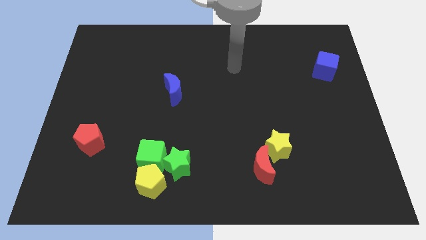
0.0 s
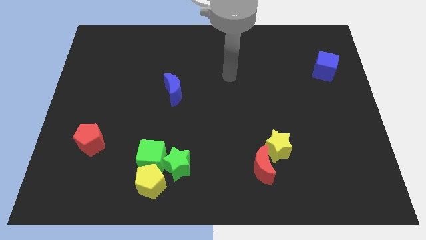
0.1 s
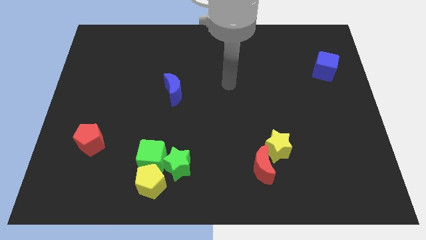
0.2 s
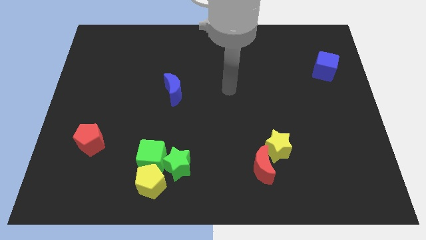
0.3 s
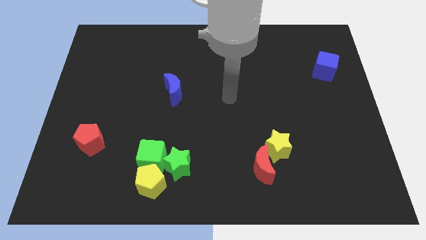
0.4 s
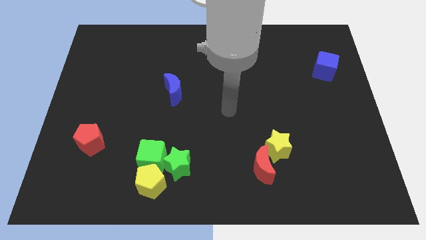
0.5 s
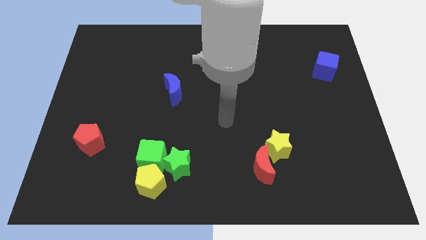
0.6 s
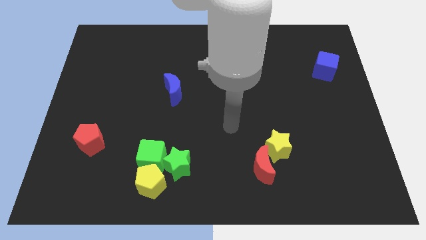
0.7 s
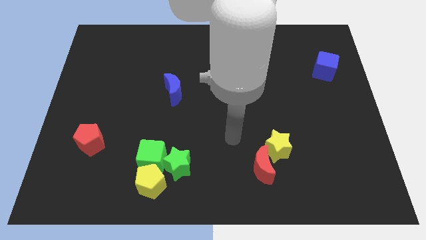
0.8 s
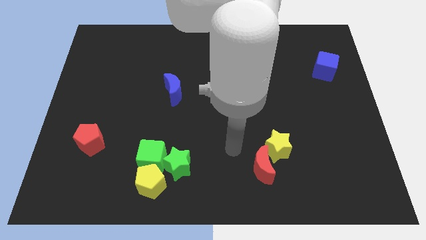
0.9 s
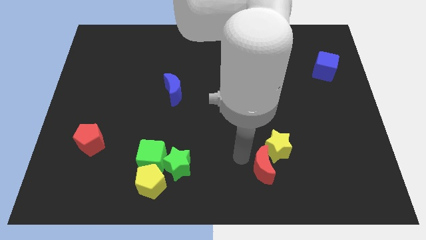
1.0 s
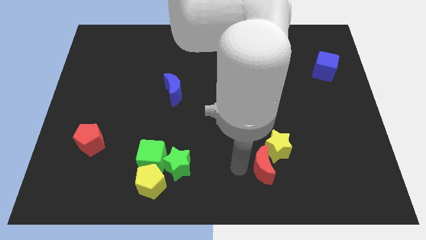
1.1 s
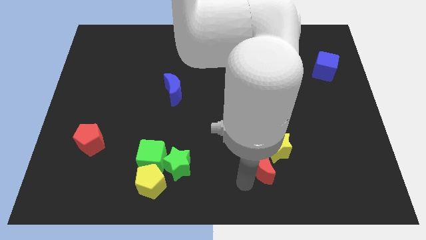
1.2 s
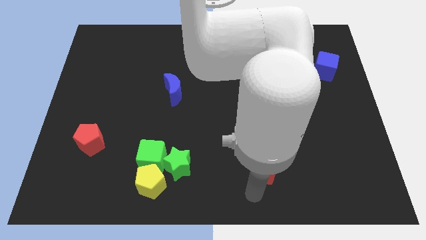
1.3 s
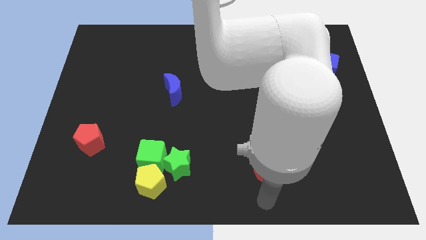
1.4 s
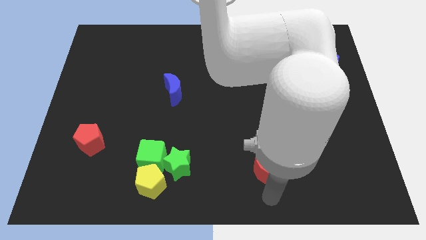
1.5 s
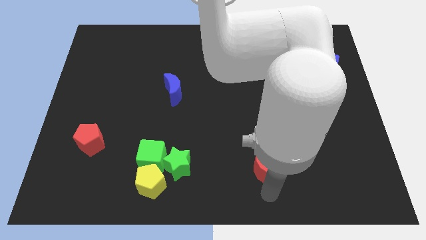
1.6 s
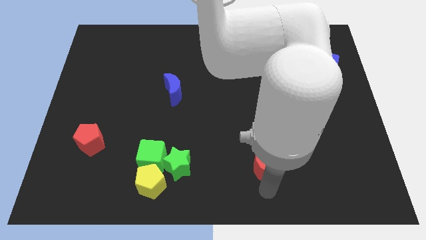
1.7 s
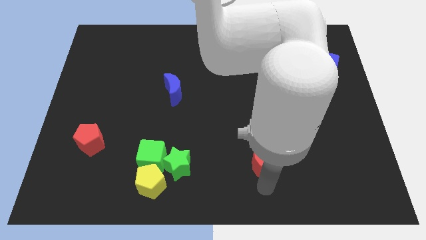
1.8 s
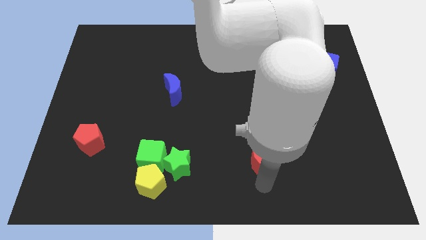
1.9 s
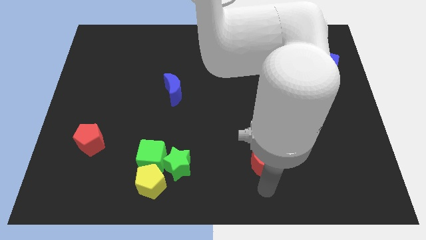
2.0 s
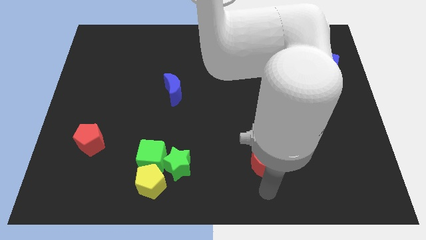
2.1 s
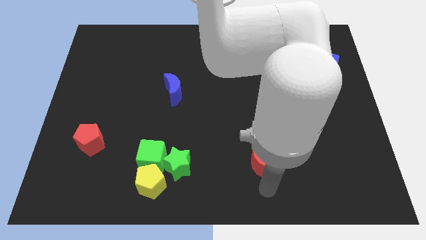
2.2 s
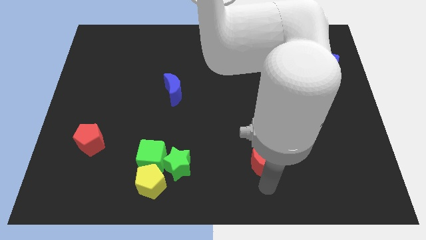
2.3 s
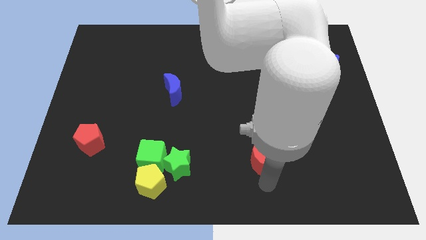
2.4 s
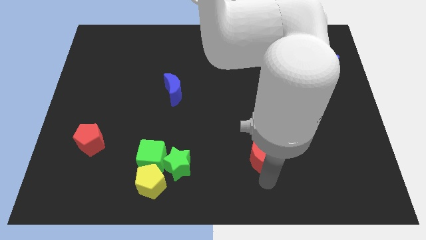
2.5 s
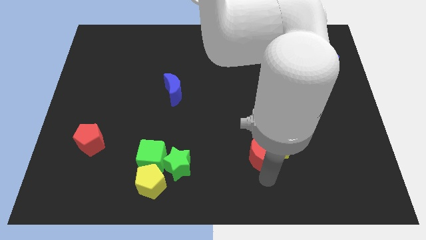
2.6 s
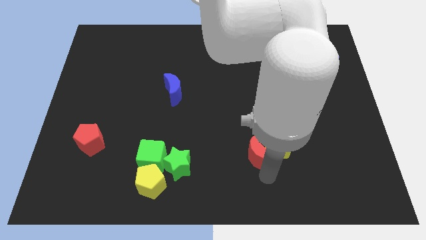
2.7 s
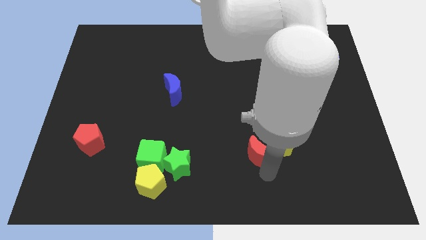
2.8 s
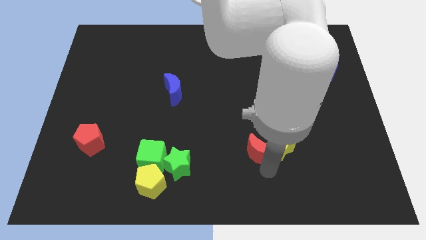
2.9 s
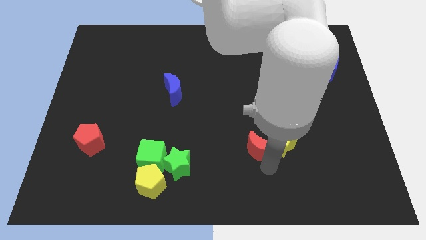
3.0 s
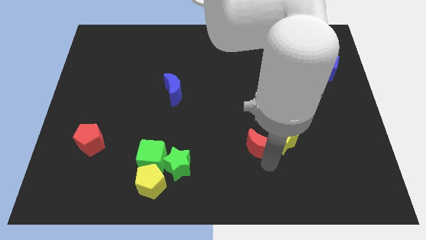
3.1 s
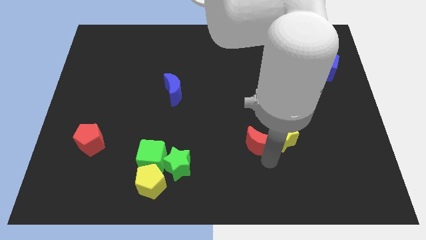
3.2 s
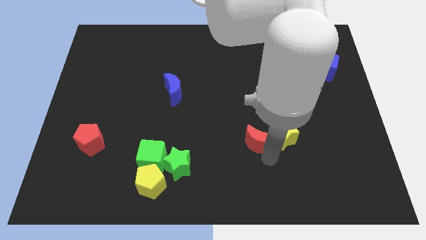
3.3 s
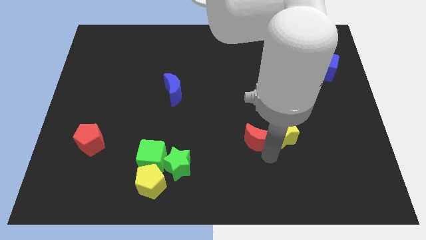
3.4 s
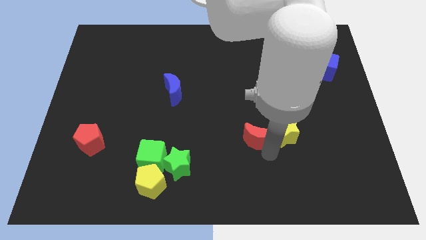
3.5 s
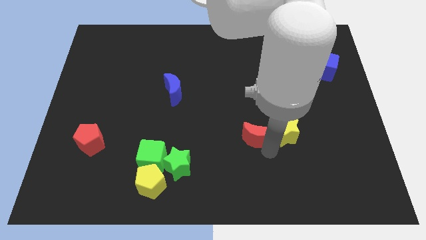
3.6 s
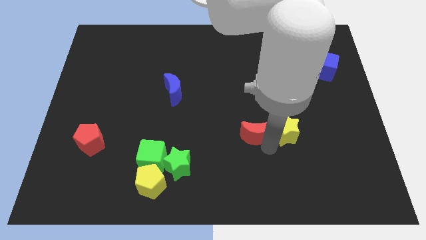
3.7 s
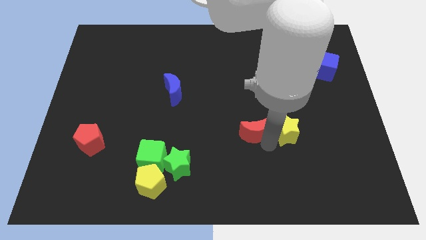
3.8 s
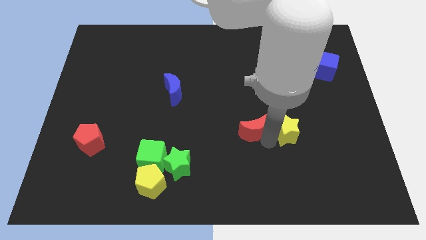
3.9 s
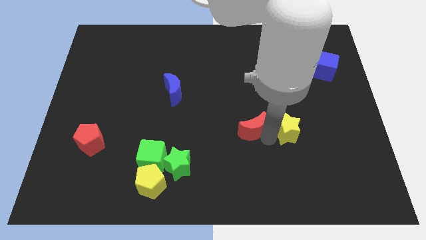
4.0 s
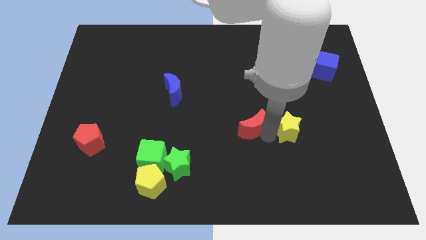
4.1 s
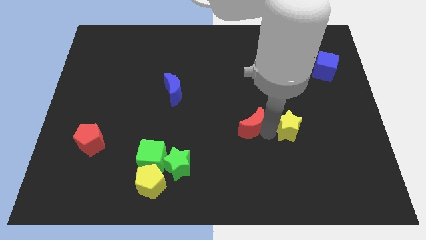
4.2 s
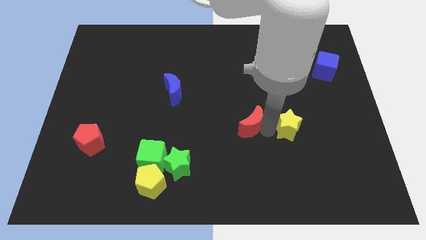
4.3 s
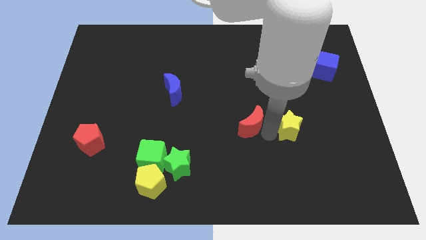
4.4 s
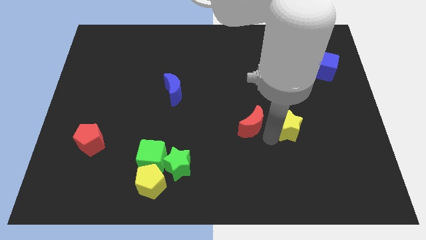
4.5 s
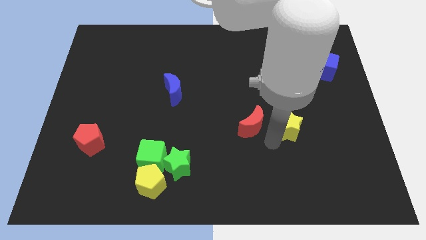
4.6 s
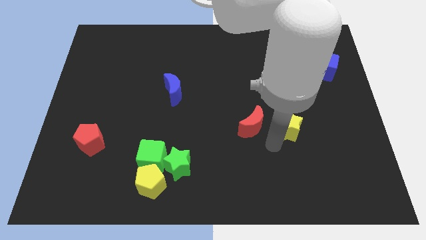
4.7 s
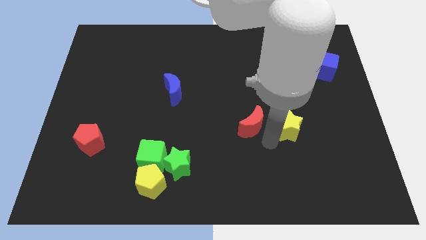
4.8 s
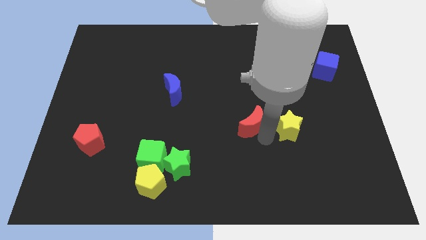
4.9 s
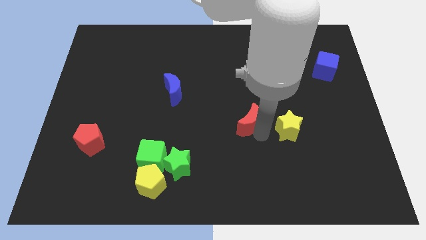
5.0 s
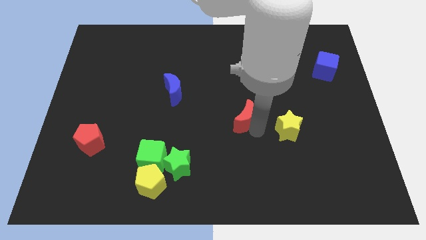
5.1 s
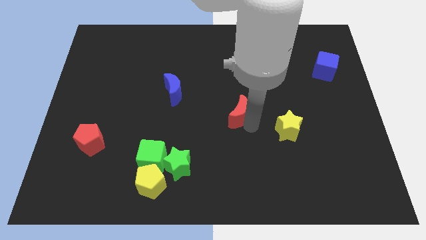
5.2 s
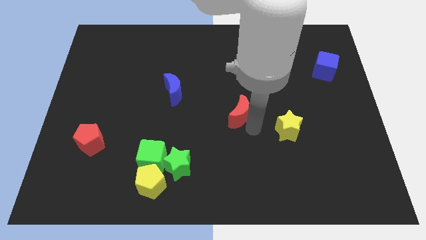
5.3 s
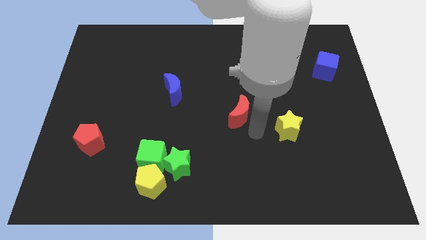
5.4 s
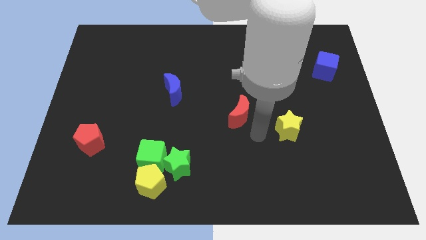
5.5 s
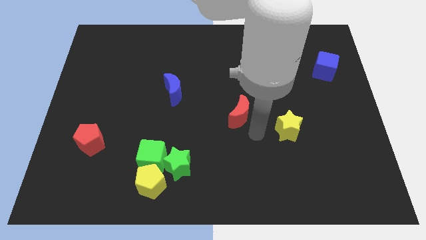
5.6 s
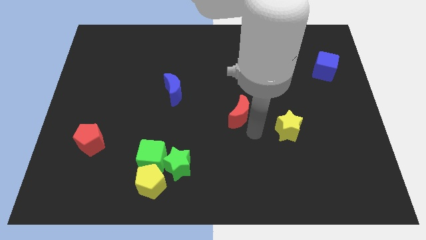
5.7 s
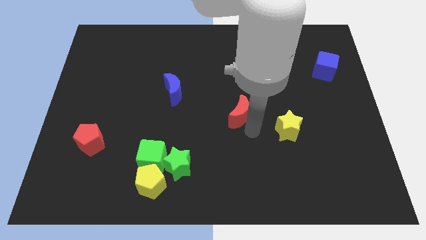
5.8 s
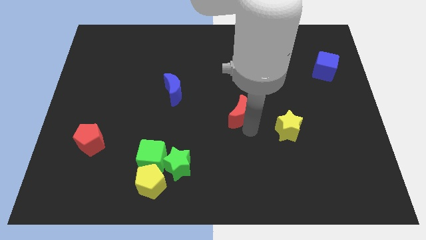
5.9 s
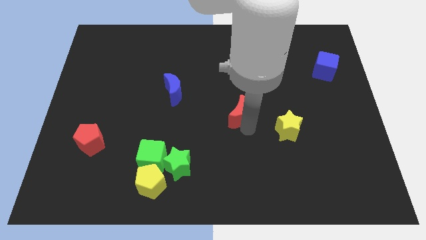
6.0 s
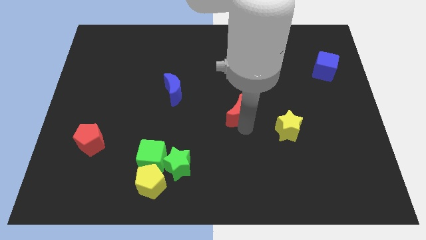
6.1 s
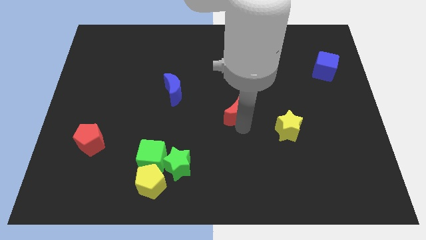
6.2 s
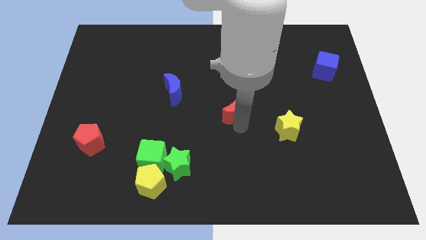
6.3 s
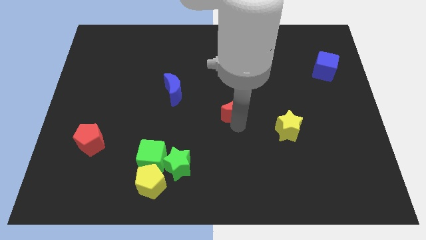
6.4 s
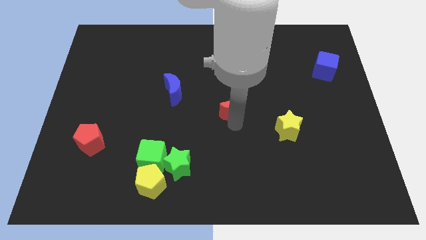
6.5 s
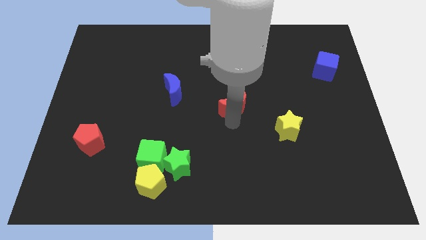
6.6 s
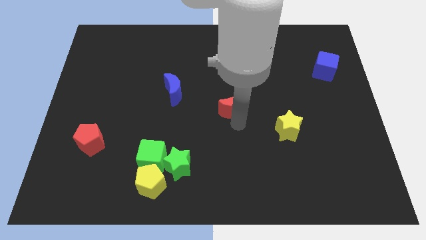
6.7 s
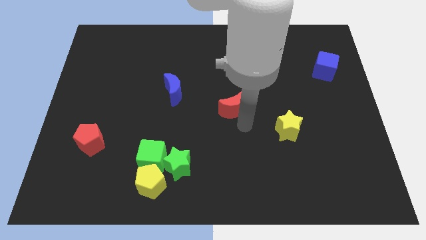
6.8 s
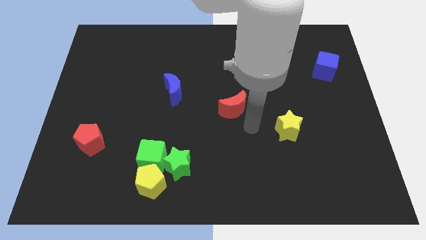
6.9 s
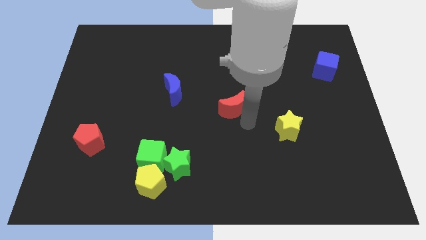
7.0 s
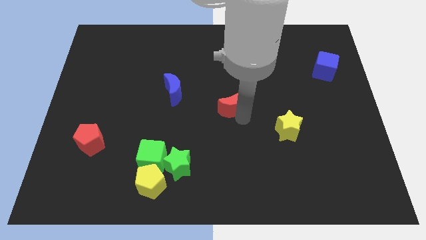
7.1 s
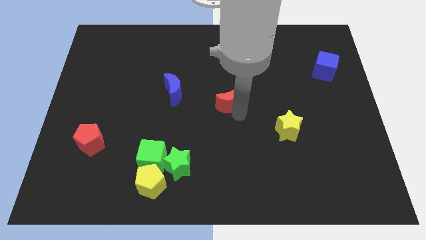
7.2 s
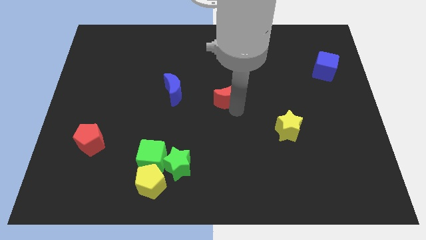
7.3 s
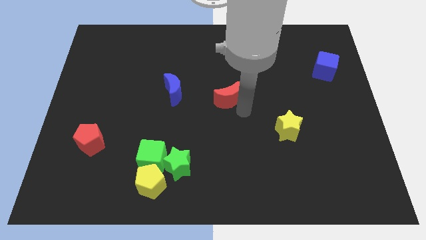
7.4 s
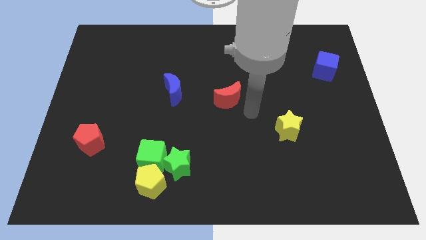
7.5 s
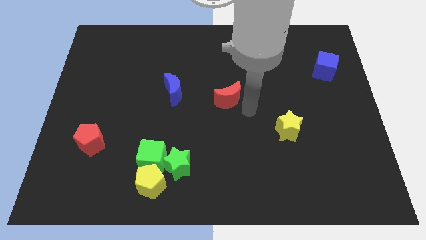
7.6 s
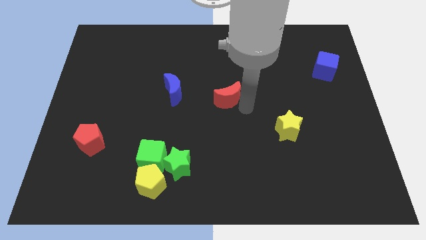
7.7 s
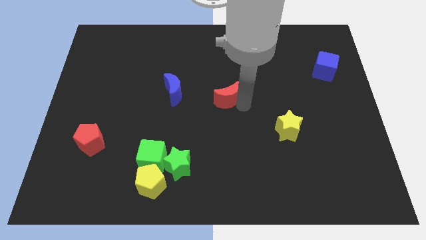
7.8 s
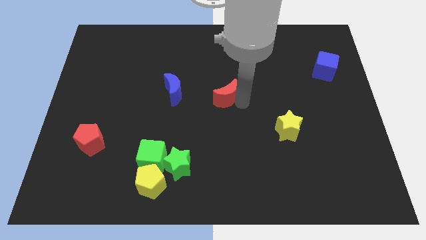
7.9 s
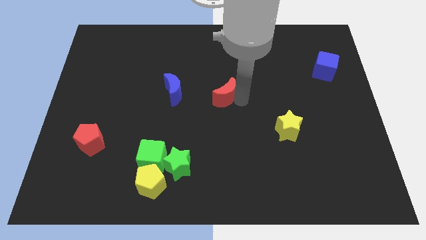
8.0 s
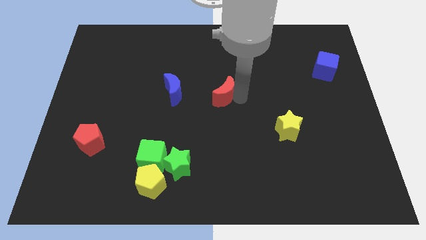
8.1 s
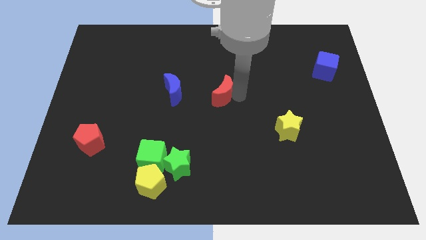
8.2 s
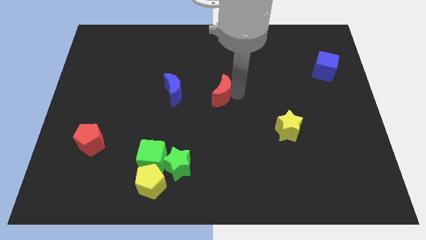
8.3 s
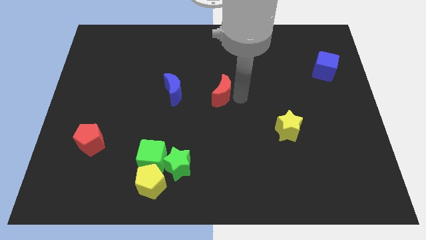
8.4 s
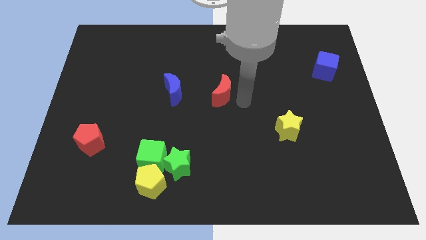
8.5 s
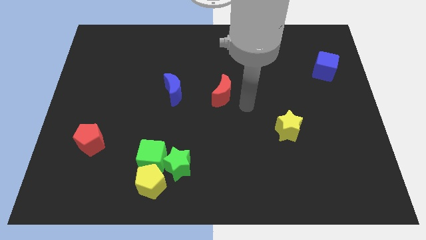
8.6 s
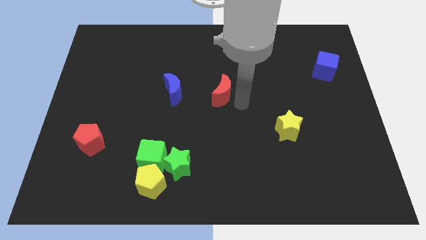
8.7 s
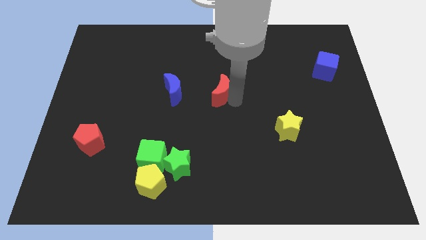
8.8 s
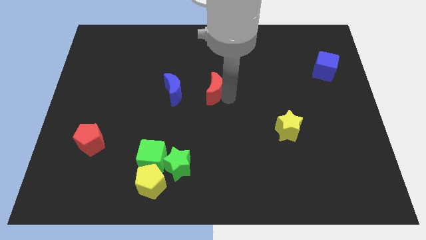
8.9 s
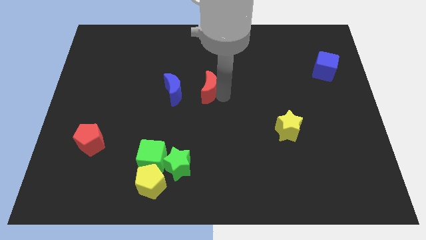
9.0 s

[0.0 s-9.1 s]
push the red moon diagonally up and to the left
